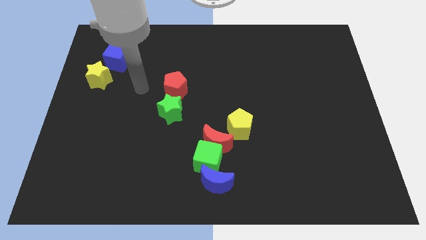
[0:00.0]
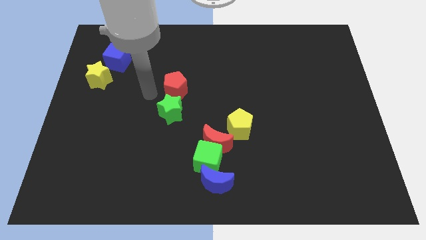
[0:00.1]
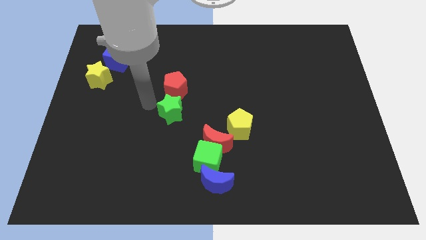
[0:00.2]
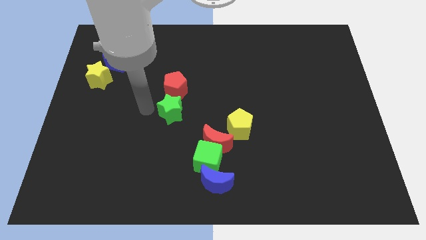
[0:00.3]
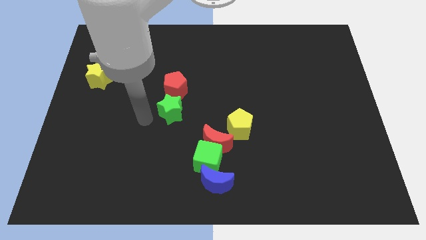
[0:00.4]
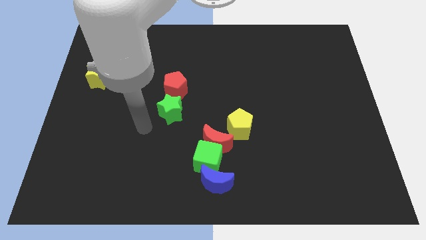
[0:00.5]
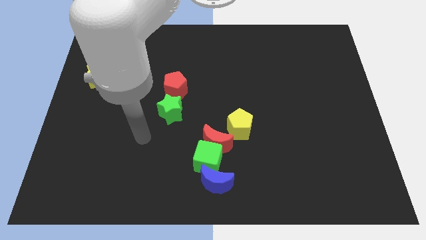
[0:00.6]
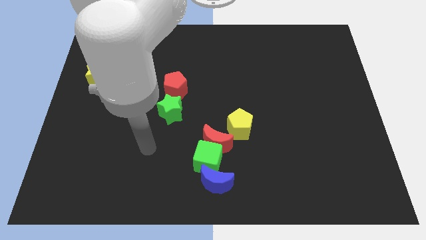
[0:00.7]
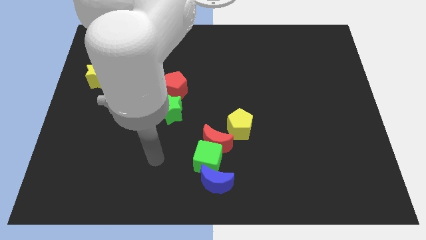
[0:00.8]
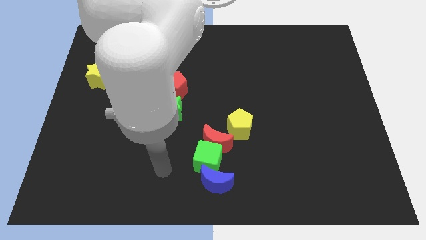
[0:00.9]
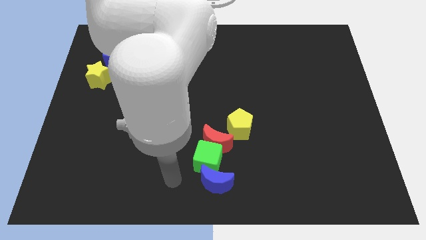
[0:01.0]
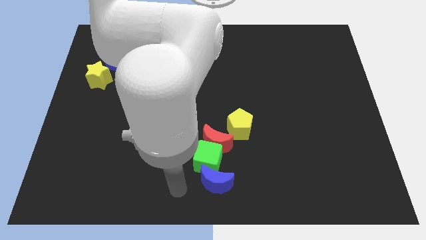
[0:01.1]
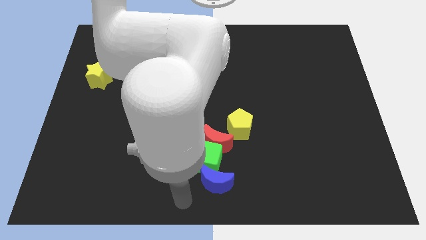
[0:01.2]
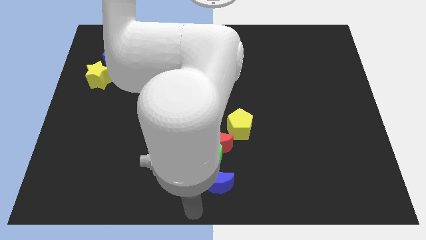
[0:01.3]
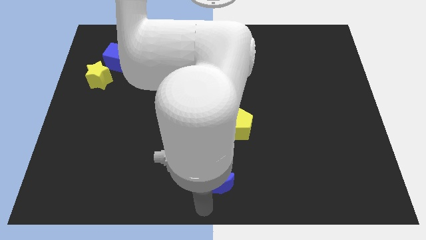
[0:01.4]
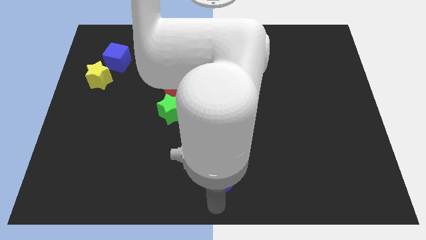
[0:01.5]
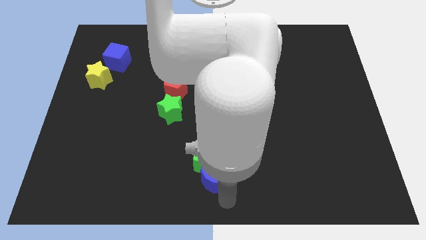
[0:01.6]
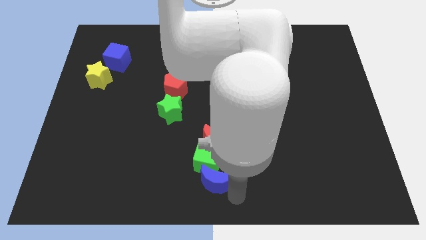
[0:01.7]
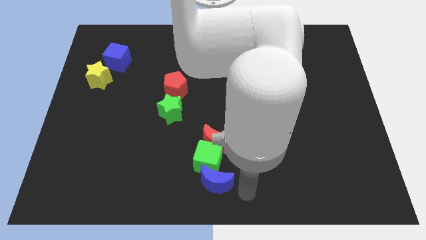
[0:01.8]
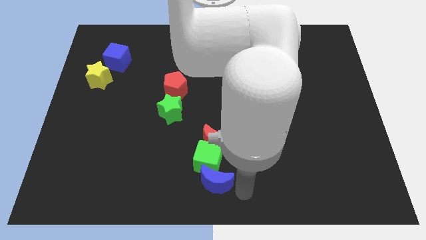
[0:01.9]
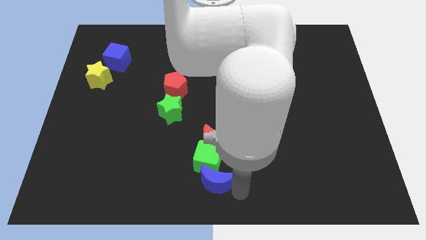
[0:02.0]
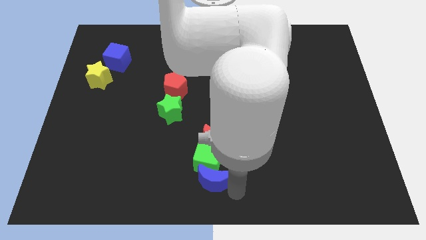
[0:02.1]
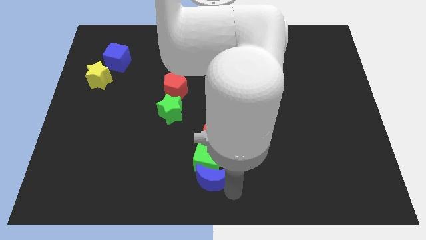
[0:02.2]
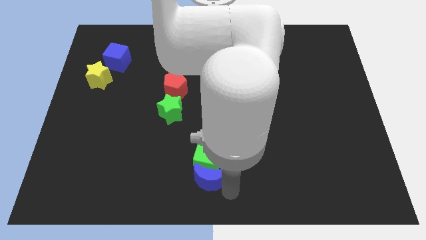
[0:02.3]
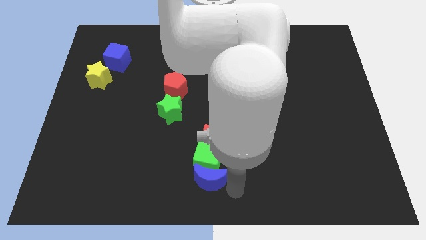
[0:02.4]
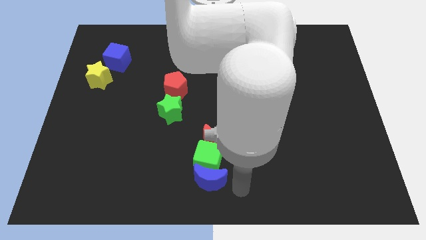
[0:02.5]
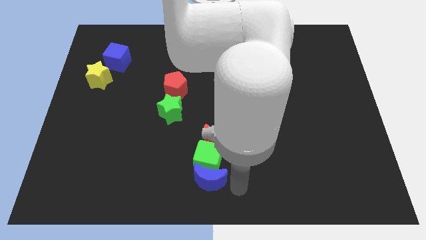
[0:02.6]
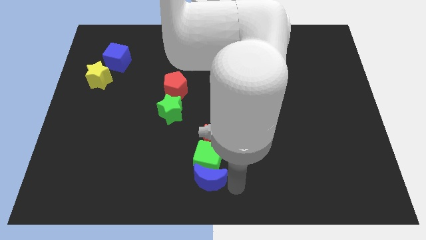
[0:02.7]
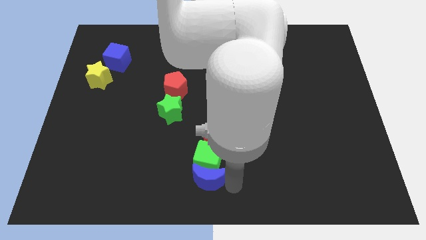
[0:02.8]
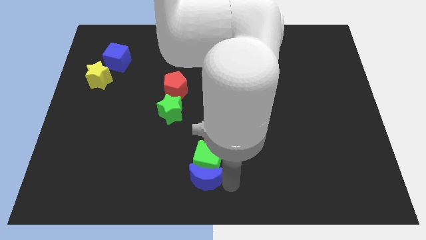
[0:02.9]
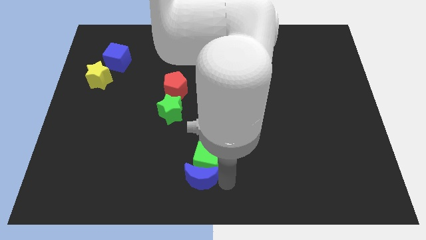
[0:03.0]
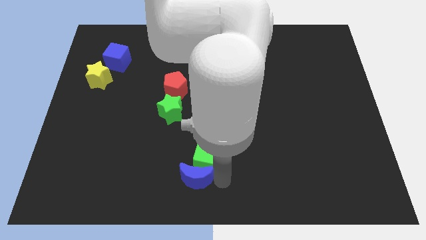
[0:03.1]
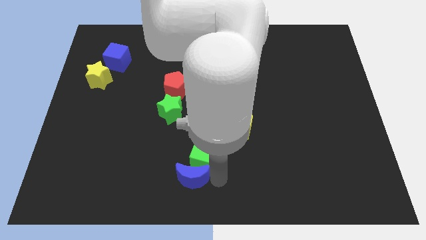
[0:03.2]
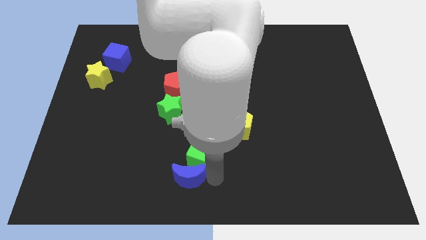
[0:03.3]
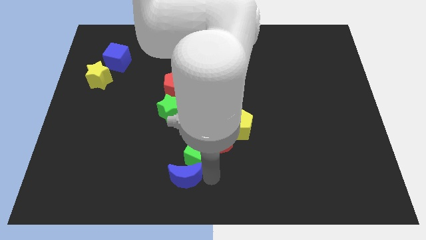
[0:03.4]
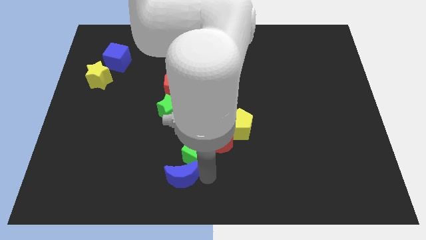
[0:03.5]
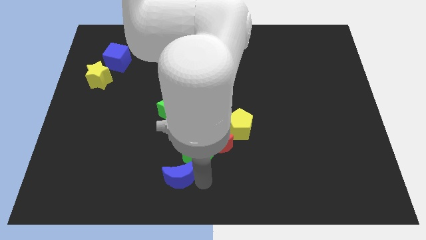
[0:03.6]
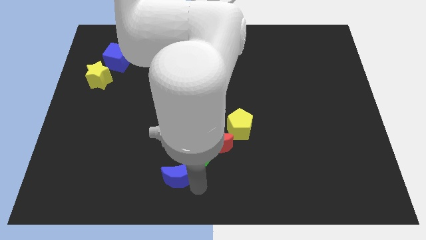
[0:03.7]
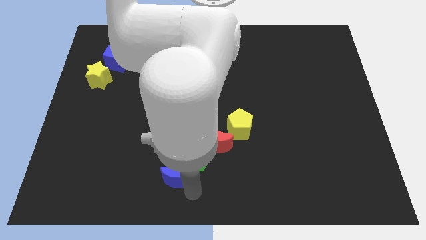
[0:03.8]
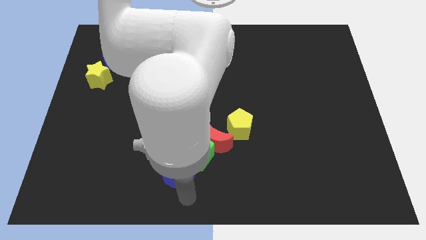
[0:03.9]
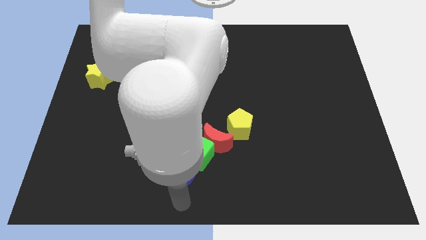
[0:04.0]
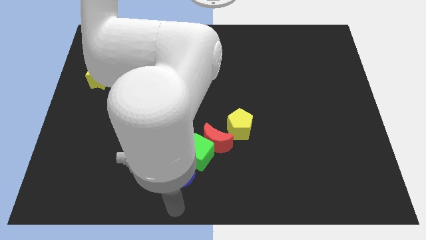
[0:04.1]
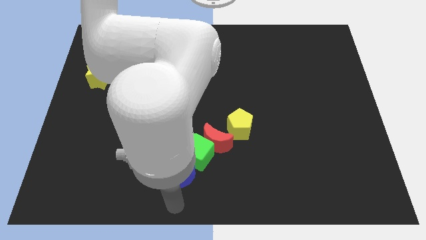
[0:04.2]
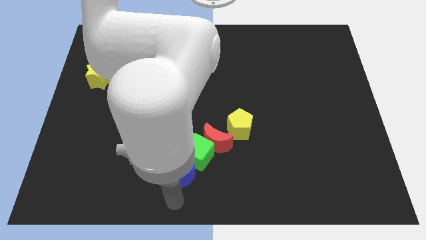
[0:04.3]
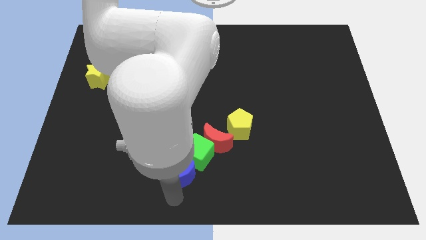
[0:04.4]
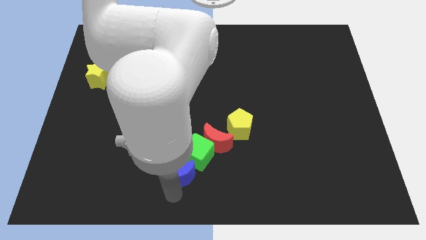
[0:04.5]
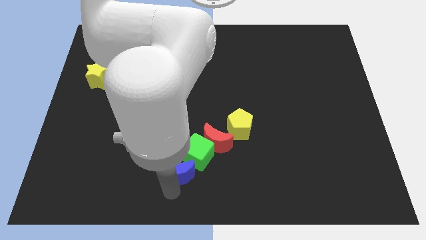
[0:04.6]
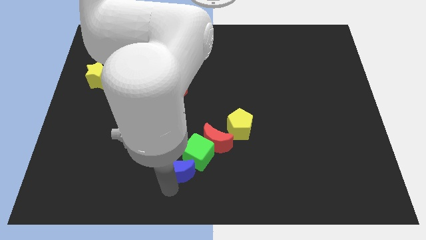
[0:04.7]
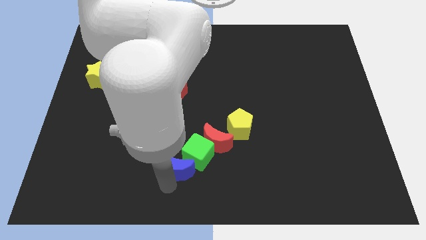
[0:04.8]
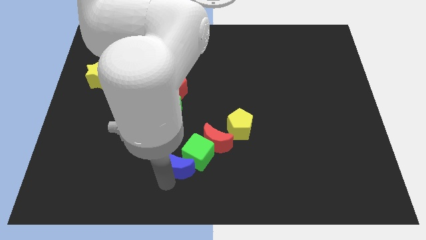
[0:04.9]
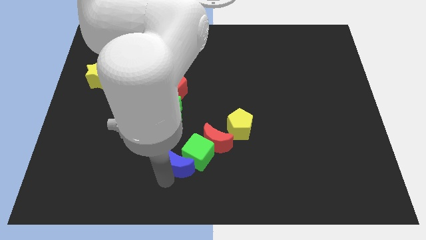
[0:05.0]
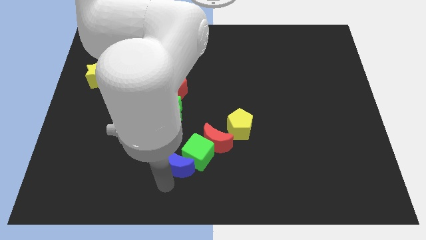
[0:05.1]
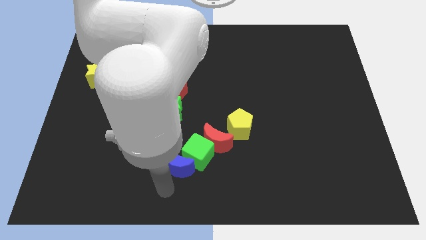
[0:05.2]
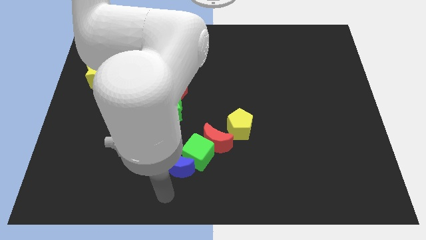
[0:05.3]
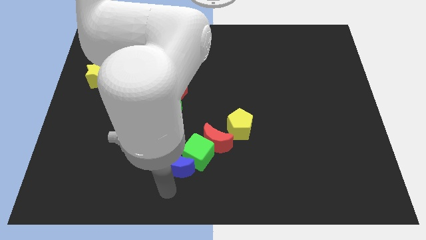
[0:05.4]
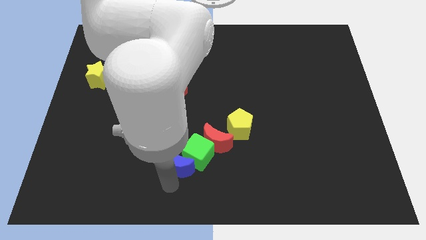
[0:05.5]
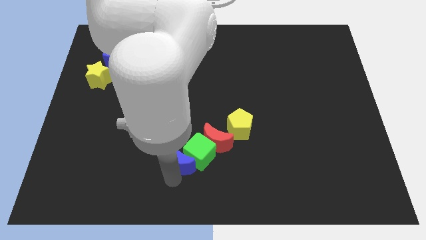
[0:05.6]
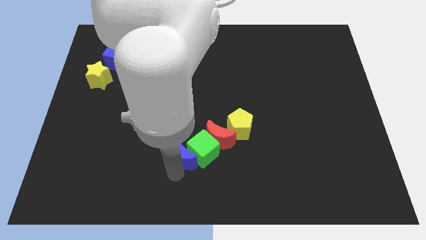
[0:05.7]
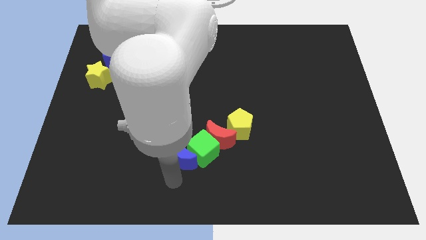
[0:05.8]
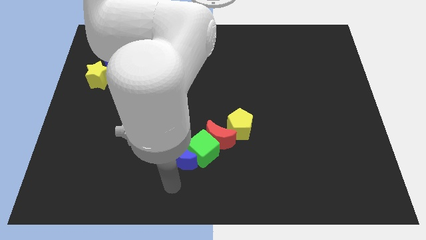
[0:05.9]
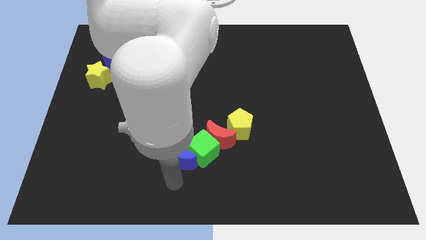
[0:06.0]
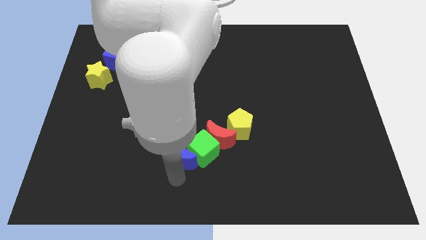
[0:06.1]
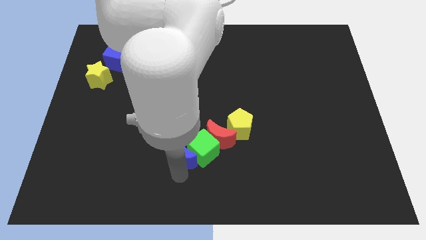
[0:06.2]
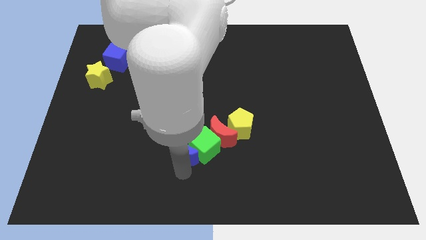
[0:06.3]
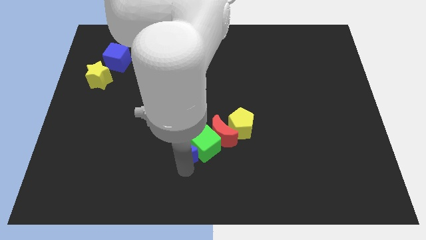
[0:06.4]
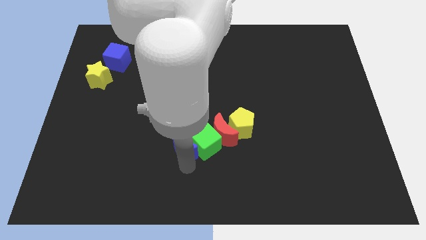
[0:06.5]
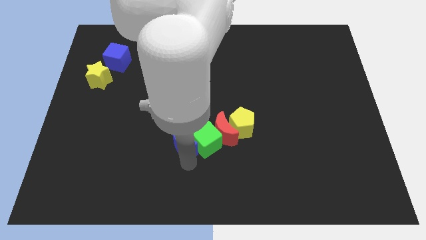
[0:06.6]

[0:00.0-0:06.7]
move the blue moon to the left side of the yellow pentagon

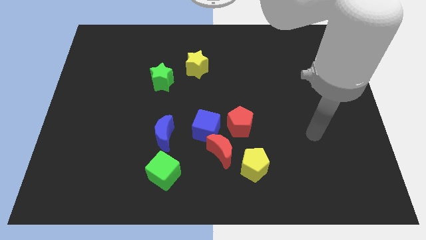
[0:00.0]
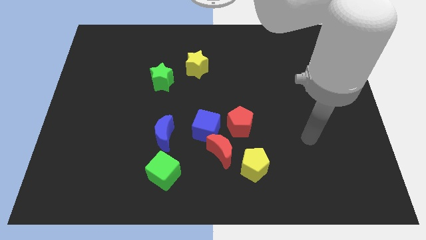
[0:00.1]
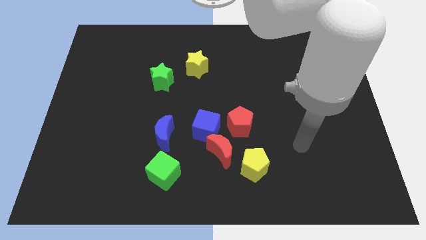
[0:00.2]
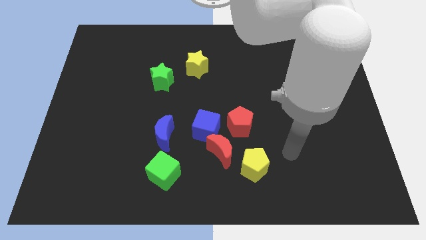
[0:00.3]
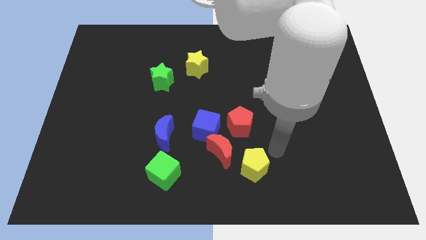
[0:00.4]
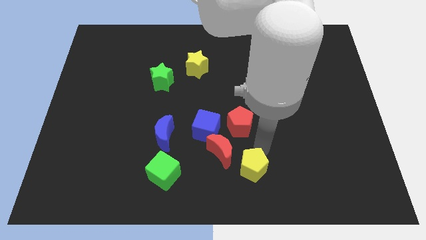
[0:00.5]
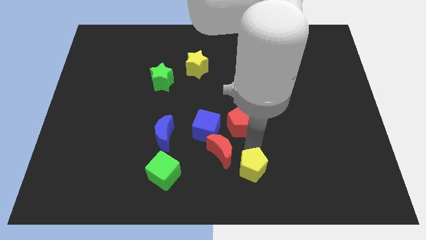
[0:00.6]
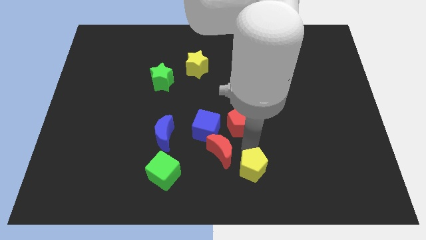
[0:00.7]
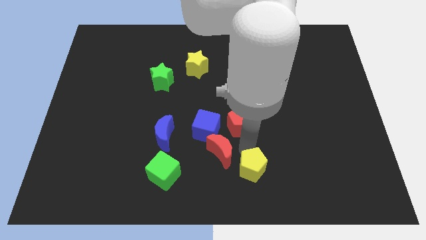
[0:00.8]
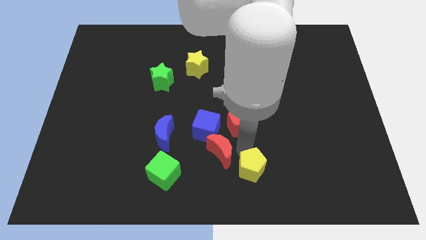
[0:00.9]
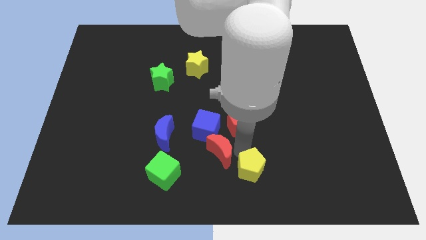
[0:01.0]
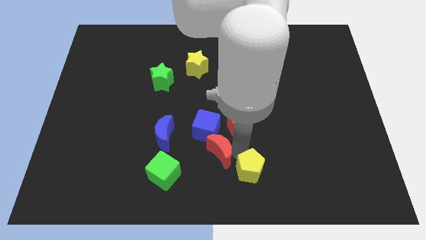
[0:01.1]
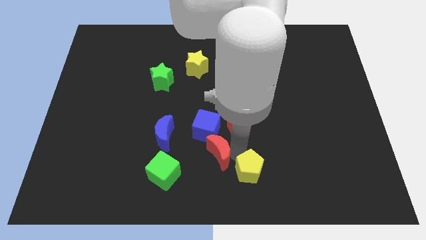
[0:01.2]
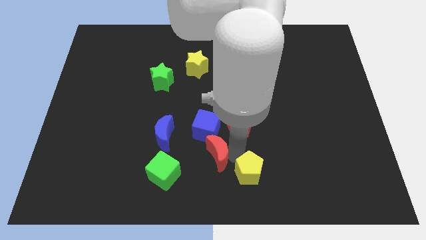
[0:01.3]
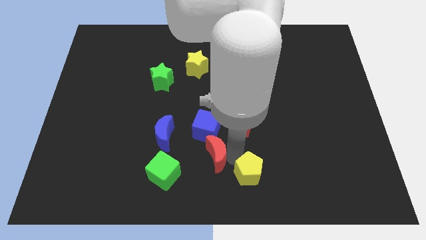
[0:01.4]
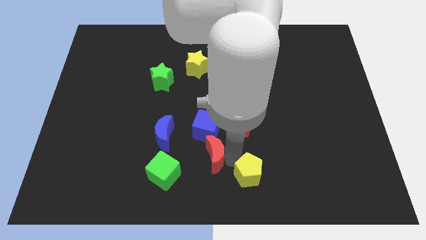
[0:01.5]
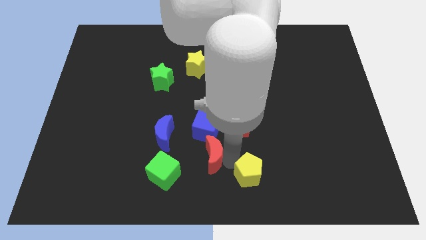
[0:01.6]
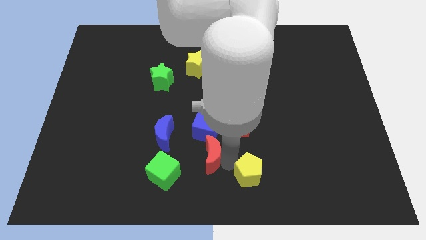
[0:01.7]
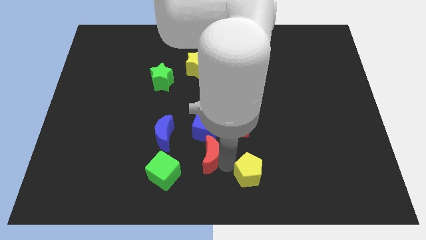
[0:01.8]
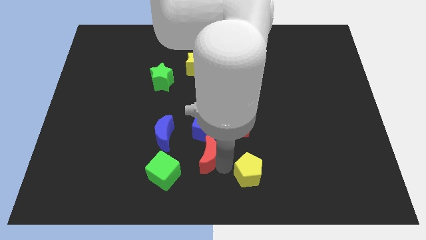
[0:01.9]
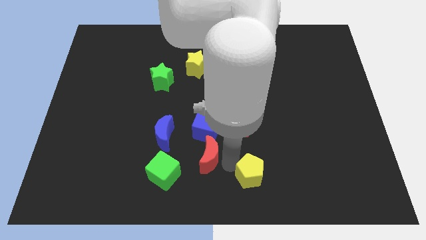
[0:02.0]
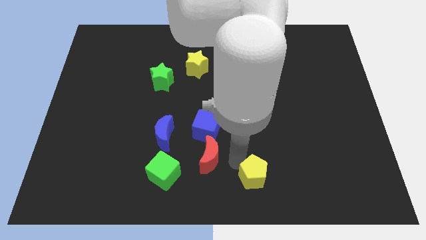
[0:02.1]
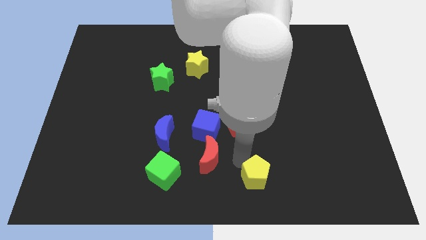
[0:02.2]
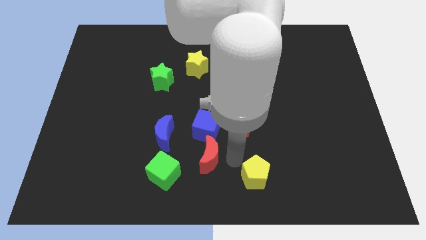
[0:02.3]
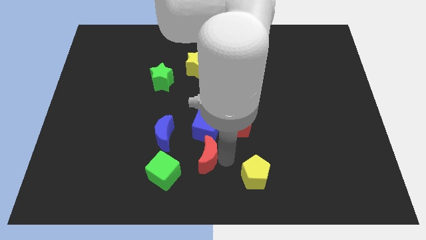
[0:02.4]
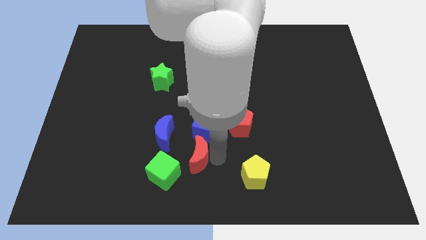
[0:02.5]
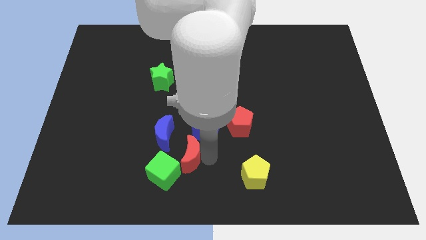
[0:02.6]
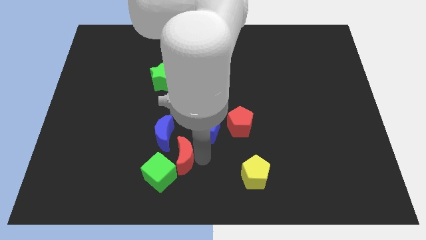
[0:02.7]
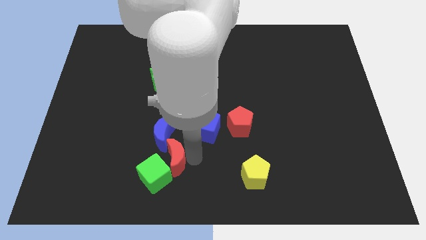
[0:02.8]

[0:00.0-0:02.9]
move the red moon to the top of the green cube
